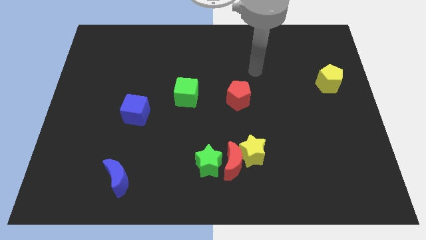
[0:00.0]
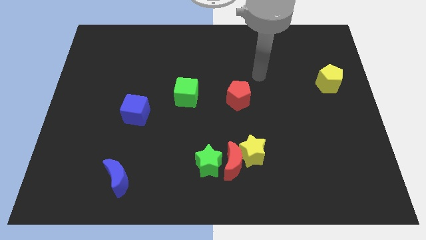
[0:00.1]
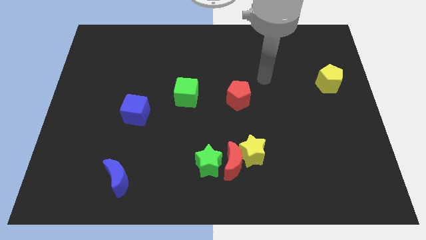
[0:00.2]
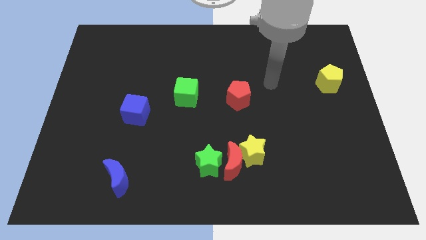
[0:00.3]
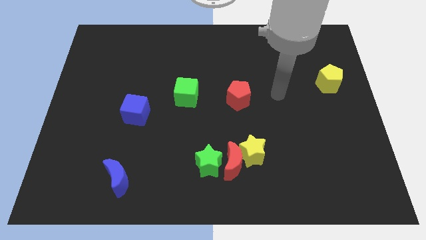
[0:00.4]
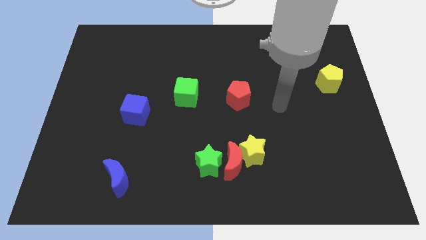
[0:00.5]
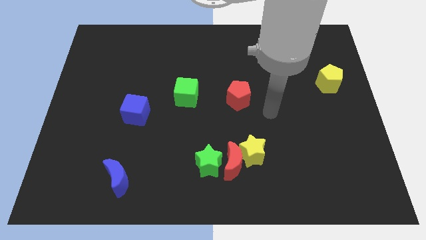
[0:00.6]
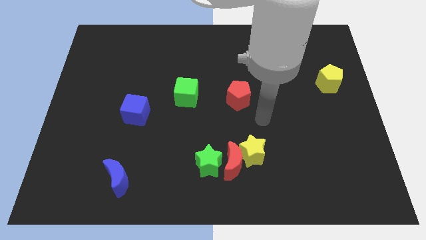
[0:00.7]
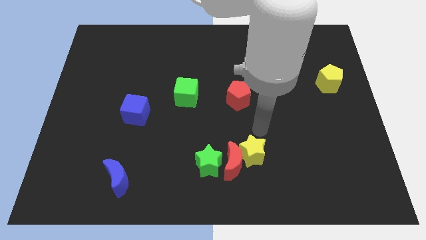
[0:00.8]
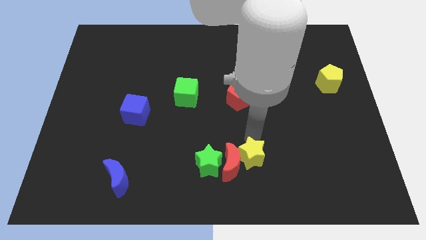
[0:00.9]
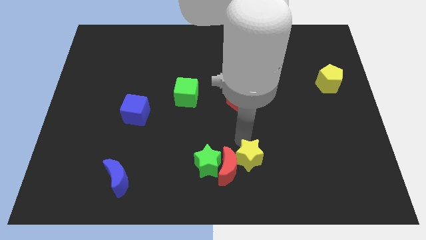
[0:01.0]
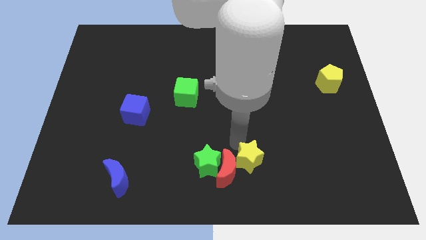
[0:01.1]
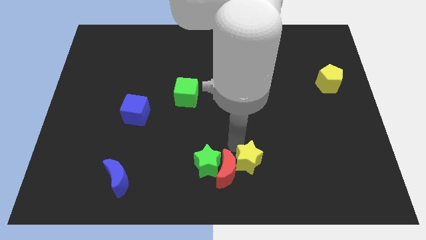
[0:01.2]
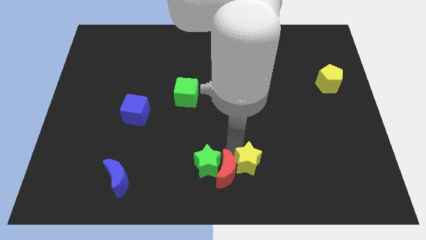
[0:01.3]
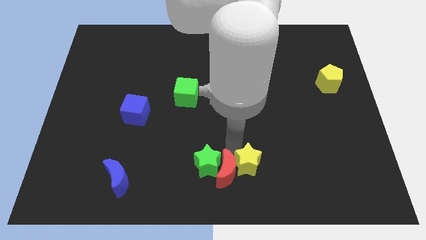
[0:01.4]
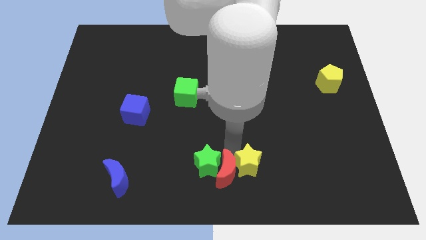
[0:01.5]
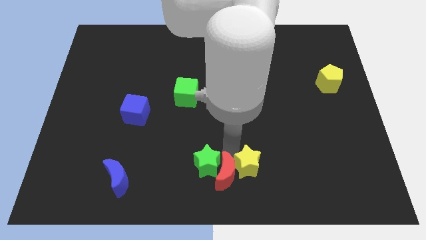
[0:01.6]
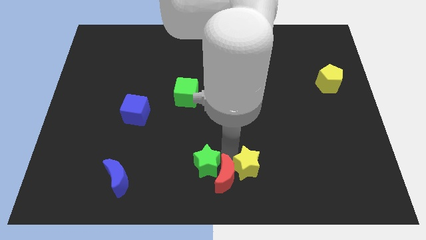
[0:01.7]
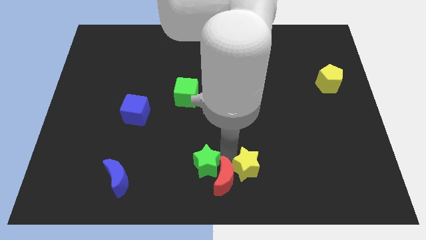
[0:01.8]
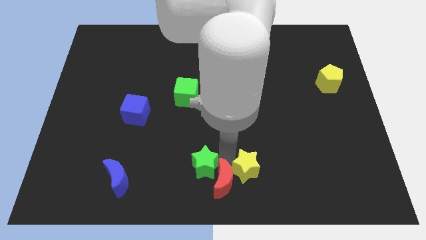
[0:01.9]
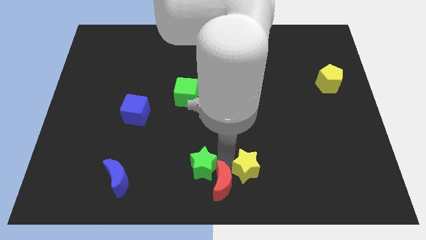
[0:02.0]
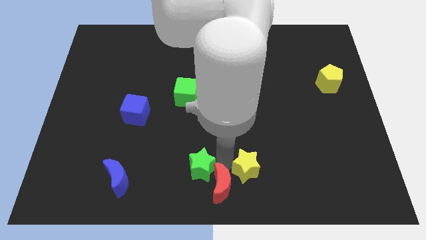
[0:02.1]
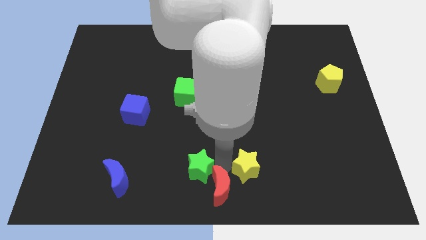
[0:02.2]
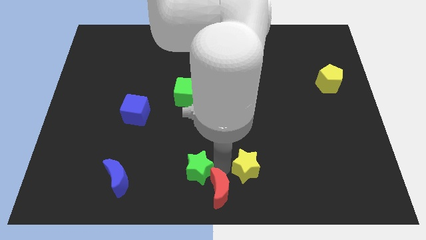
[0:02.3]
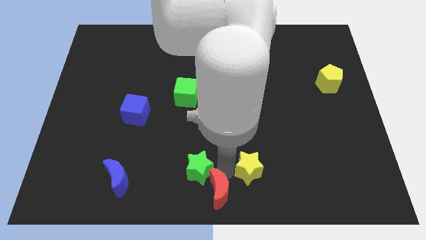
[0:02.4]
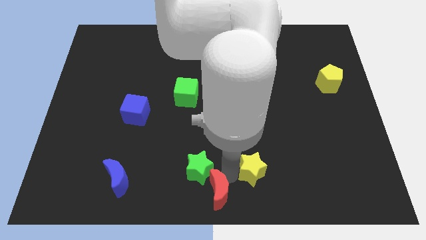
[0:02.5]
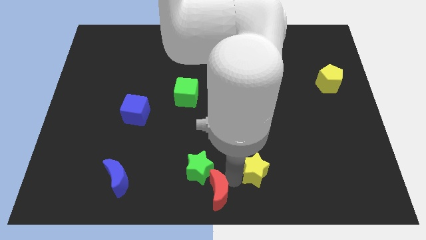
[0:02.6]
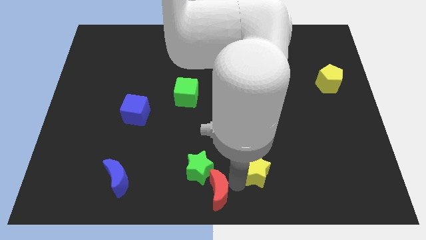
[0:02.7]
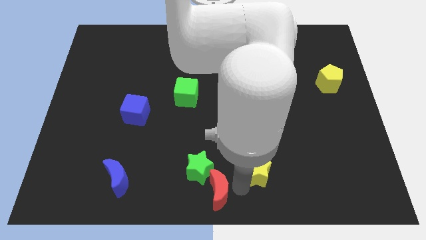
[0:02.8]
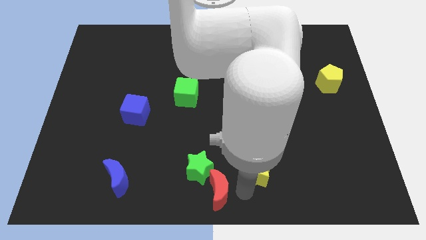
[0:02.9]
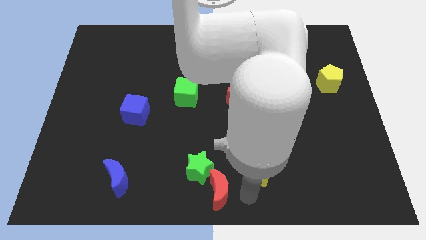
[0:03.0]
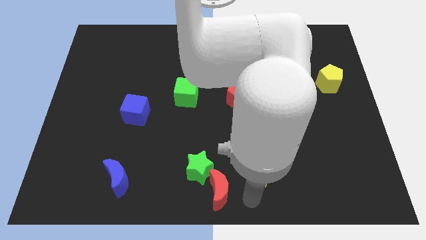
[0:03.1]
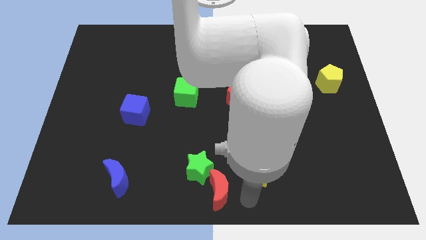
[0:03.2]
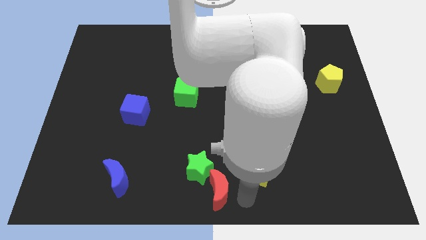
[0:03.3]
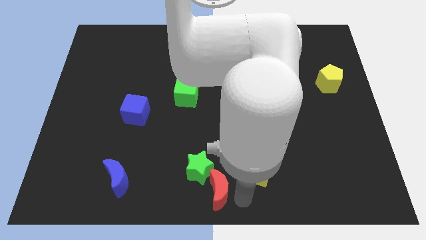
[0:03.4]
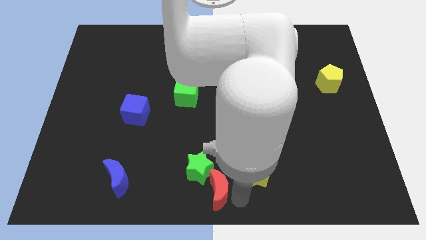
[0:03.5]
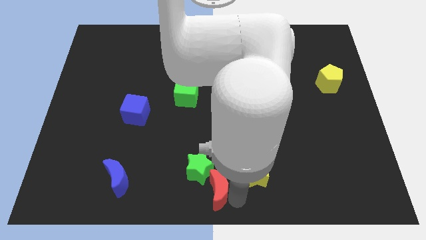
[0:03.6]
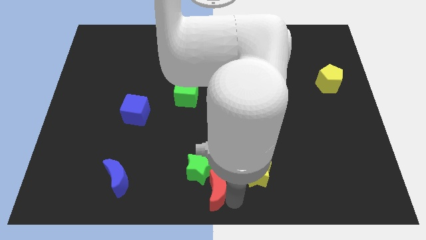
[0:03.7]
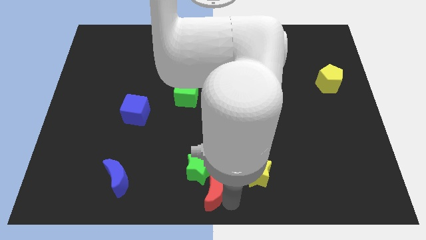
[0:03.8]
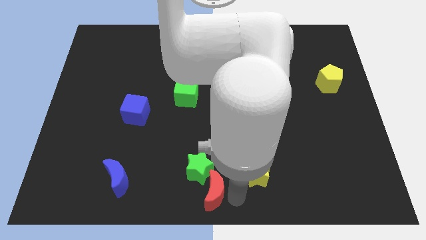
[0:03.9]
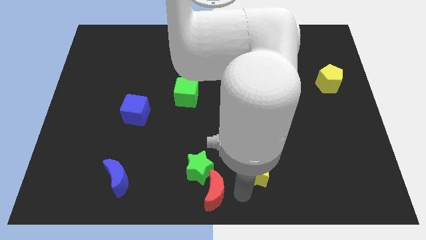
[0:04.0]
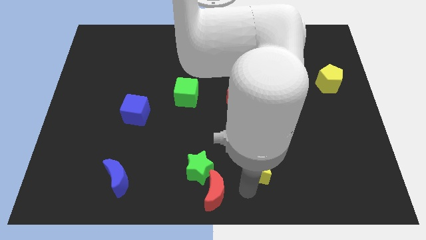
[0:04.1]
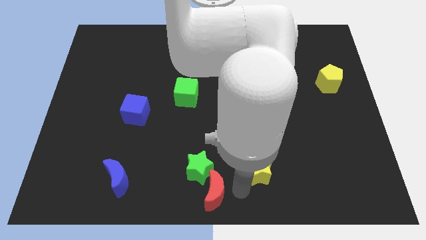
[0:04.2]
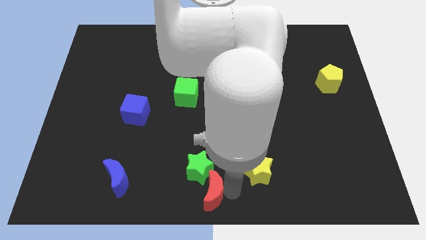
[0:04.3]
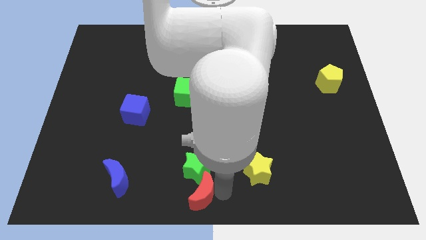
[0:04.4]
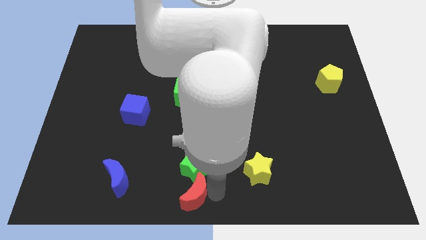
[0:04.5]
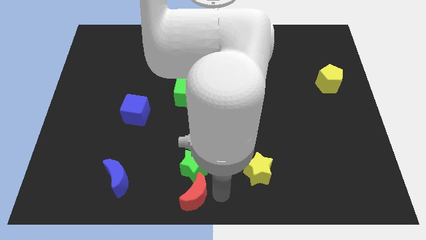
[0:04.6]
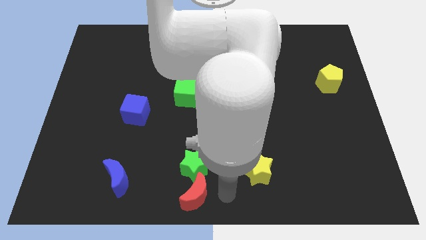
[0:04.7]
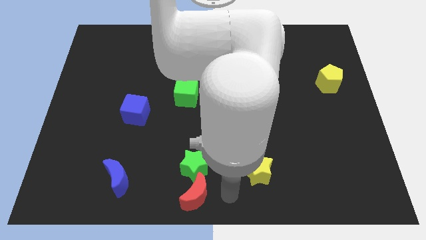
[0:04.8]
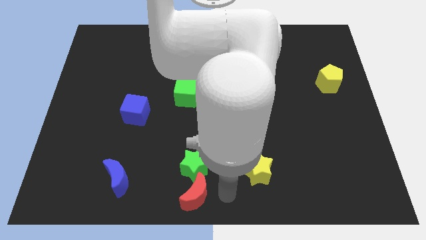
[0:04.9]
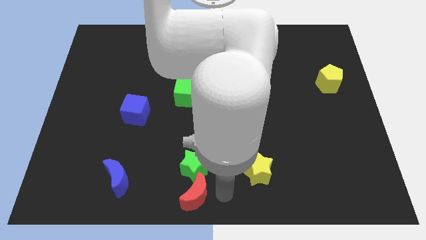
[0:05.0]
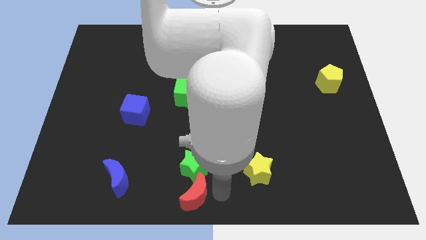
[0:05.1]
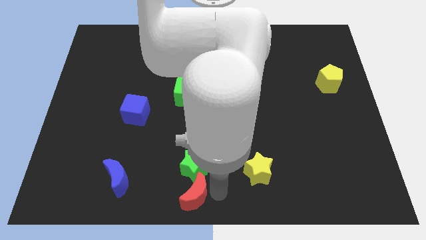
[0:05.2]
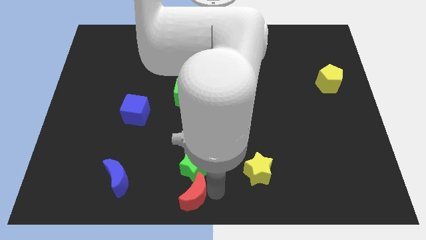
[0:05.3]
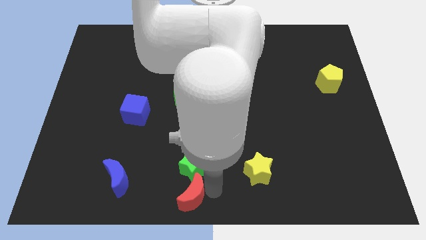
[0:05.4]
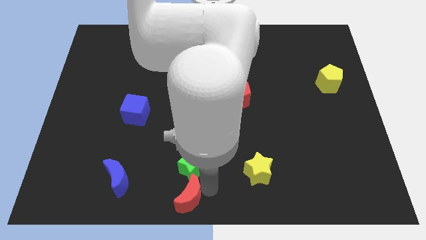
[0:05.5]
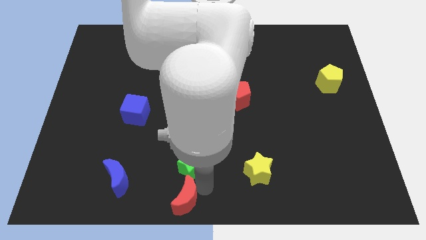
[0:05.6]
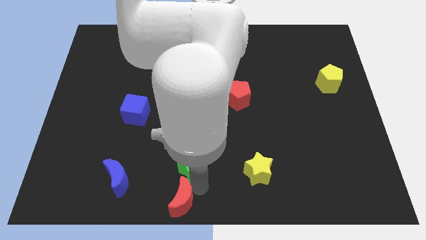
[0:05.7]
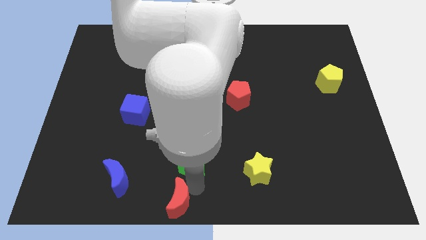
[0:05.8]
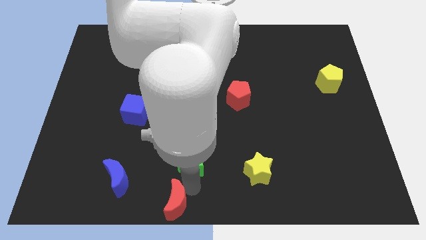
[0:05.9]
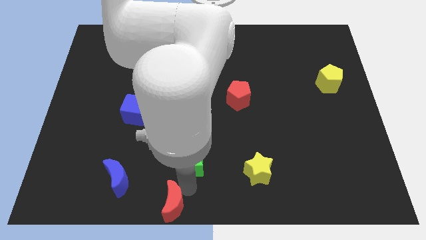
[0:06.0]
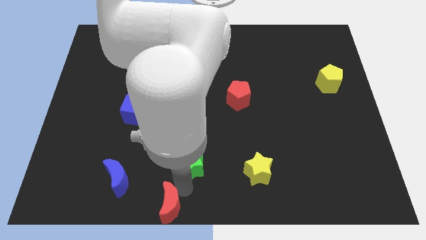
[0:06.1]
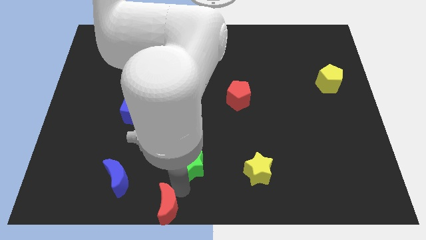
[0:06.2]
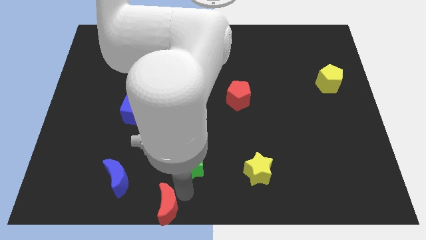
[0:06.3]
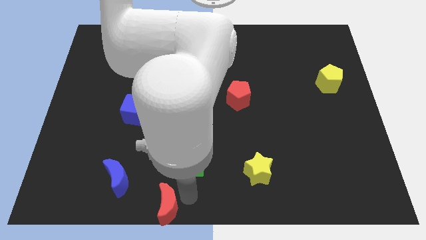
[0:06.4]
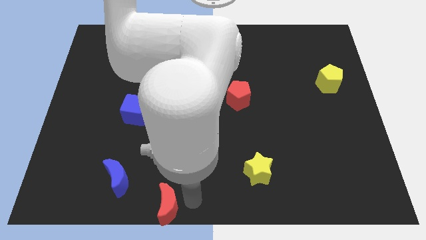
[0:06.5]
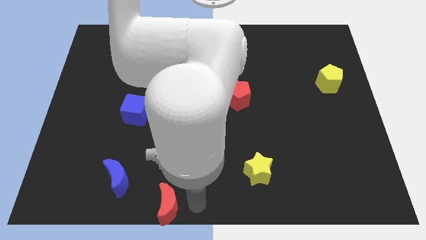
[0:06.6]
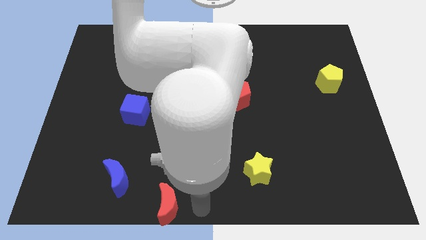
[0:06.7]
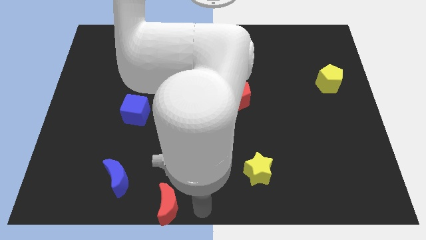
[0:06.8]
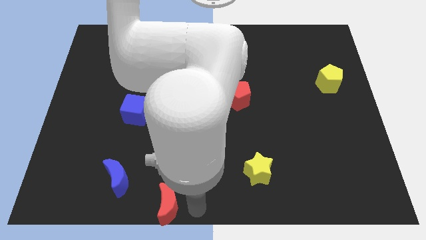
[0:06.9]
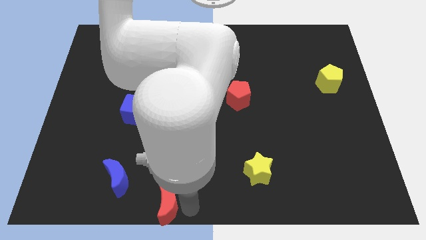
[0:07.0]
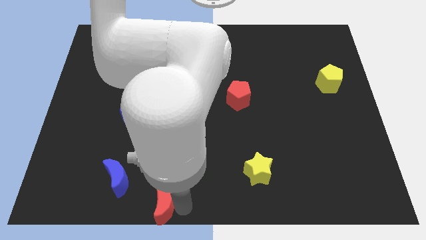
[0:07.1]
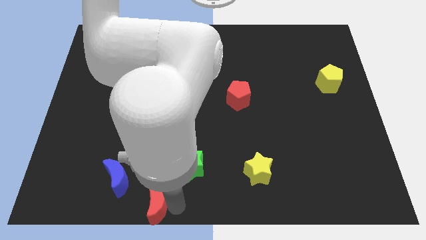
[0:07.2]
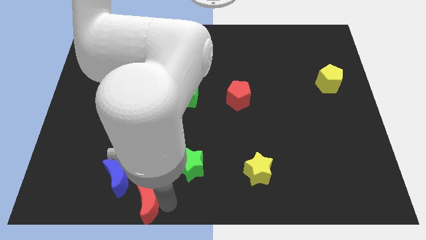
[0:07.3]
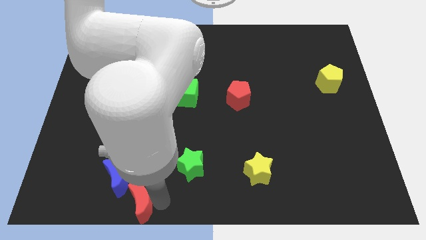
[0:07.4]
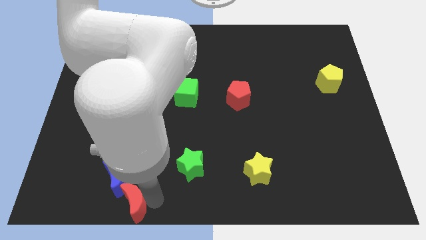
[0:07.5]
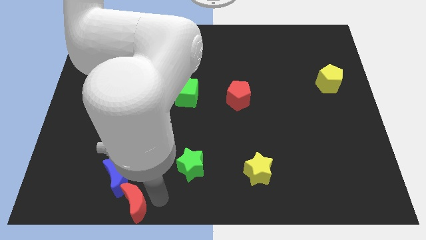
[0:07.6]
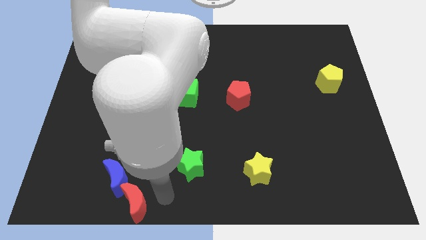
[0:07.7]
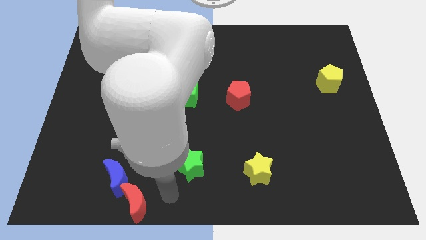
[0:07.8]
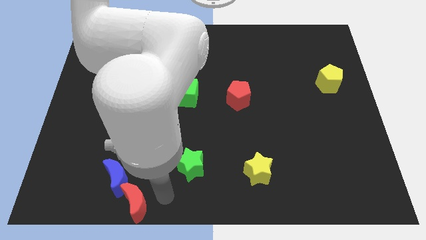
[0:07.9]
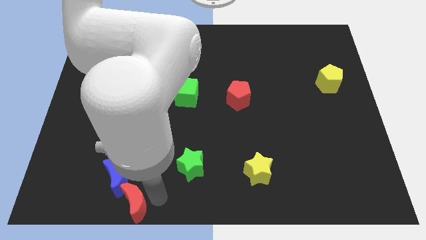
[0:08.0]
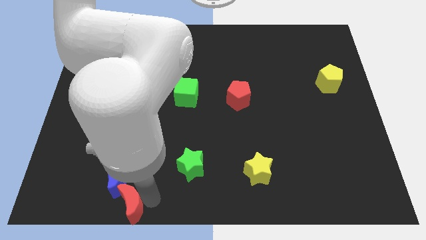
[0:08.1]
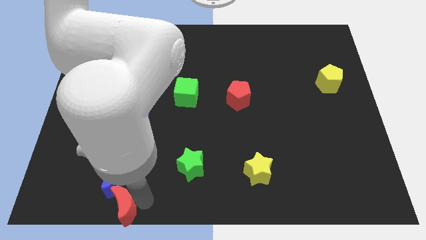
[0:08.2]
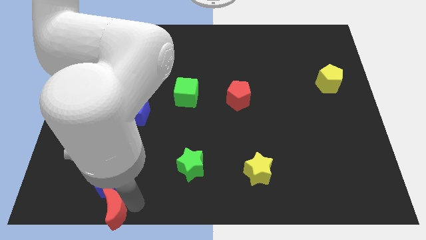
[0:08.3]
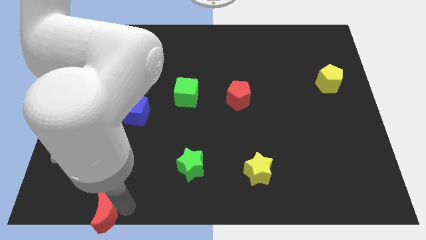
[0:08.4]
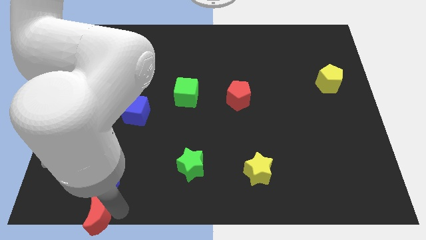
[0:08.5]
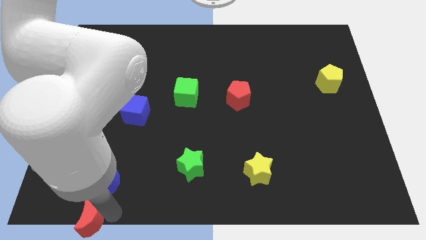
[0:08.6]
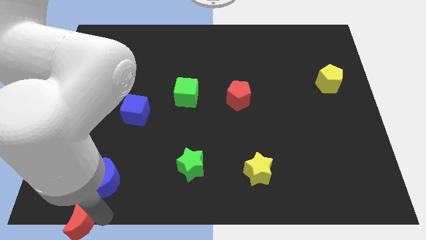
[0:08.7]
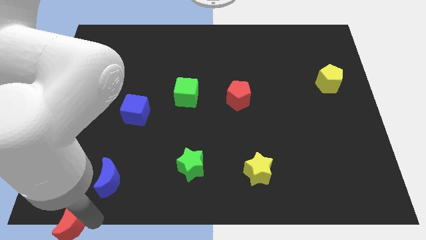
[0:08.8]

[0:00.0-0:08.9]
push the red moon to the bottom left corner
